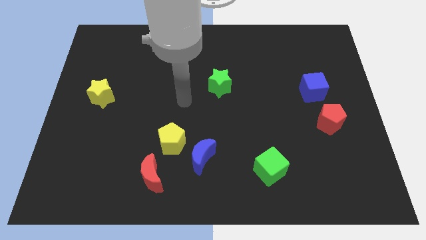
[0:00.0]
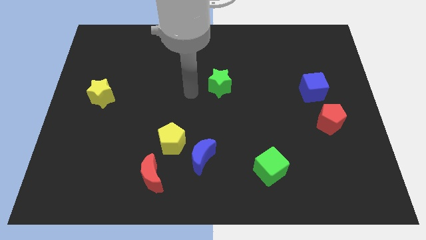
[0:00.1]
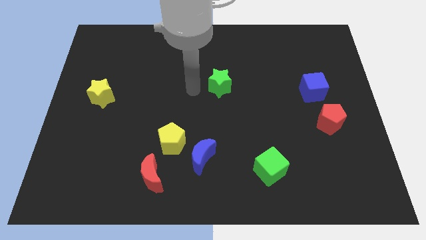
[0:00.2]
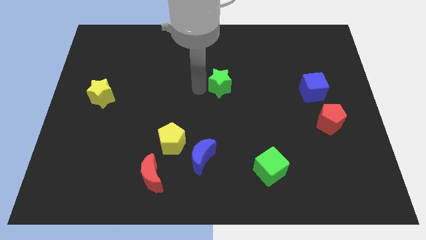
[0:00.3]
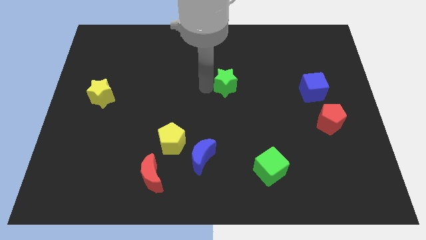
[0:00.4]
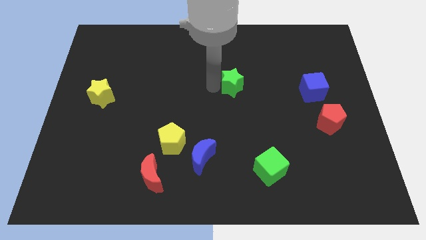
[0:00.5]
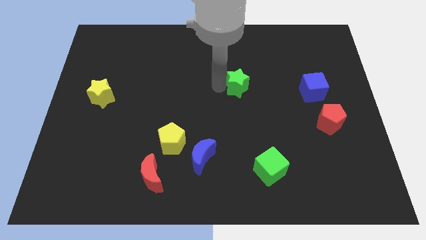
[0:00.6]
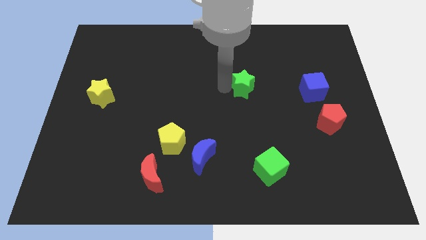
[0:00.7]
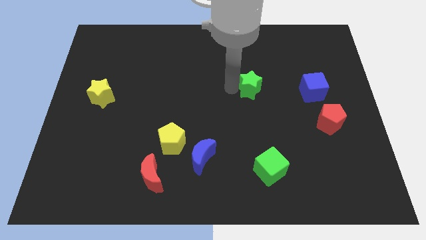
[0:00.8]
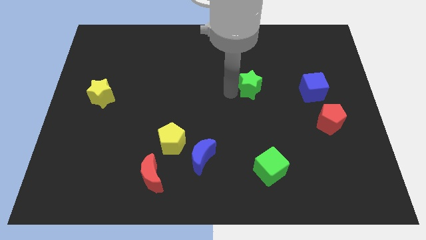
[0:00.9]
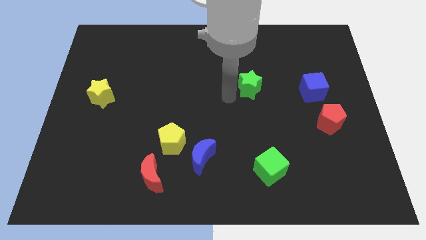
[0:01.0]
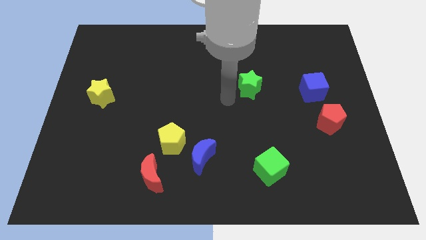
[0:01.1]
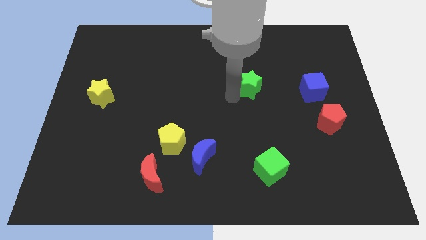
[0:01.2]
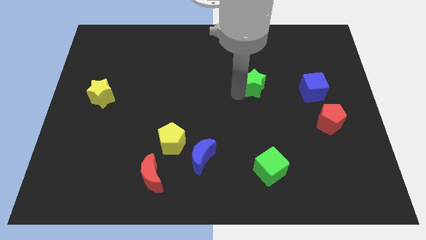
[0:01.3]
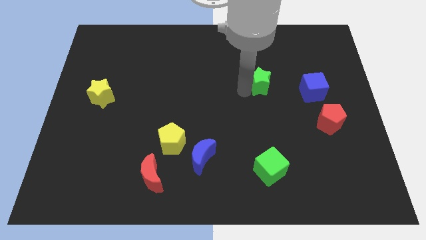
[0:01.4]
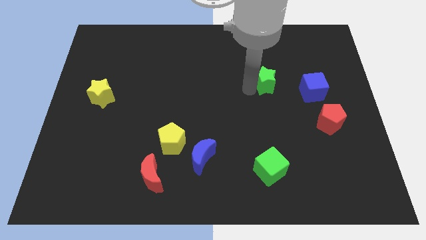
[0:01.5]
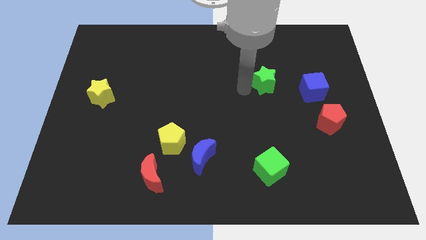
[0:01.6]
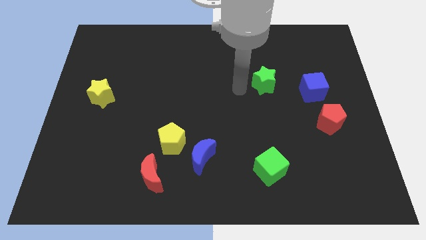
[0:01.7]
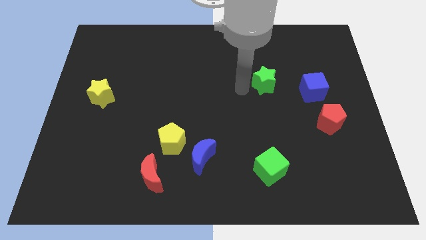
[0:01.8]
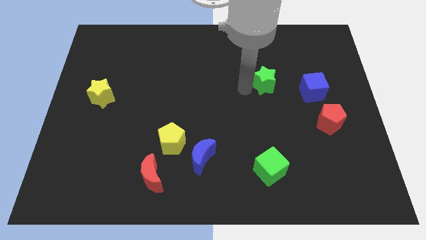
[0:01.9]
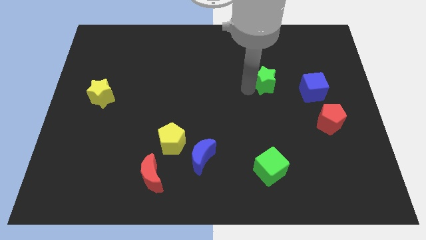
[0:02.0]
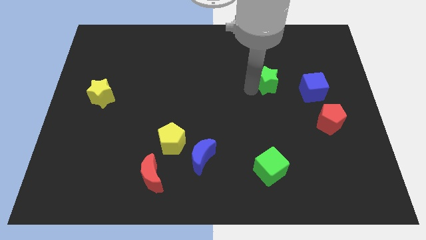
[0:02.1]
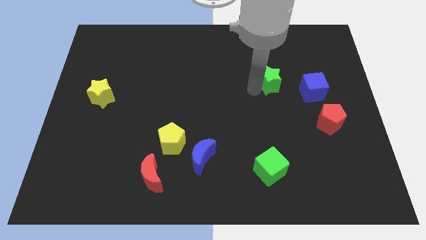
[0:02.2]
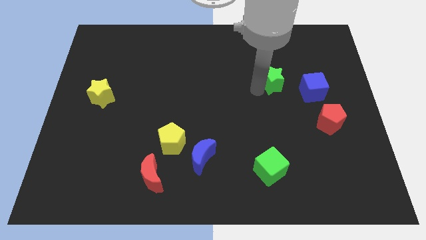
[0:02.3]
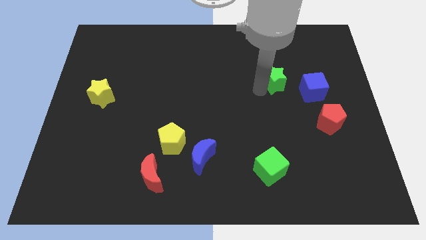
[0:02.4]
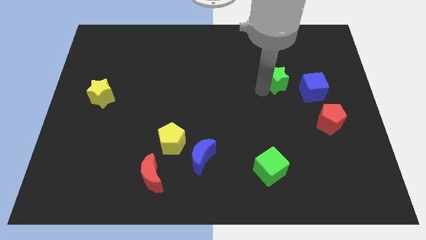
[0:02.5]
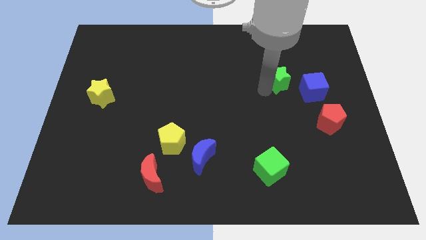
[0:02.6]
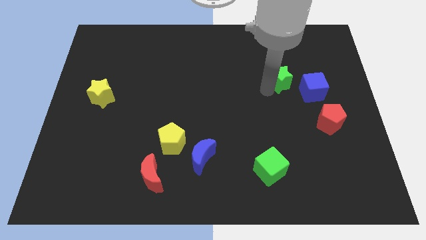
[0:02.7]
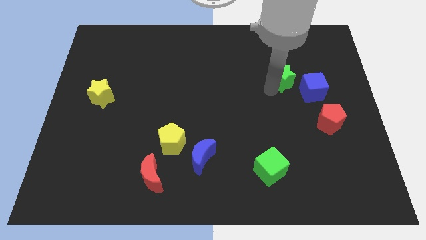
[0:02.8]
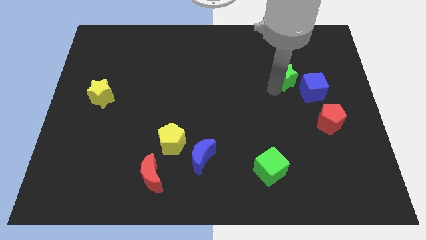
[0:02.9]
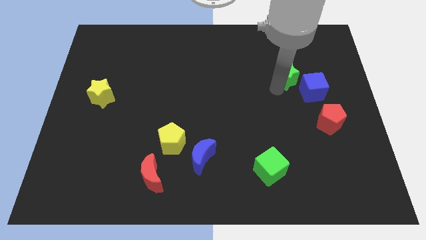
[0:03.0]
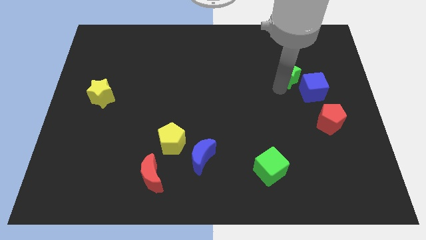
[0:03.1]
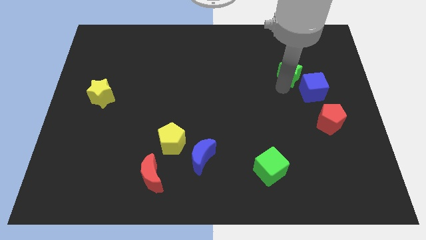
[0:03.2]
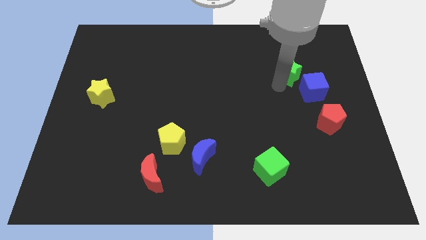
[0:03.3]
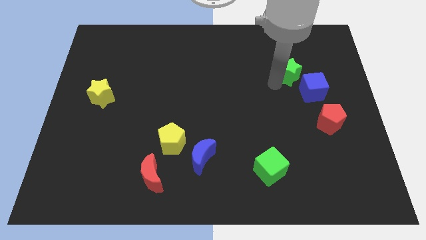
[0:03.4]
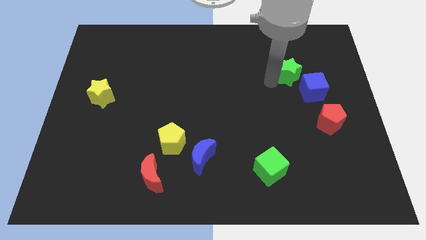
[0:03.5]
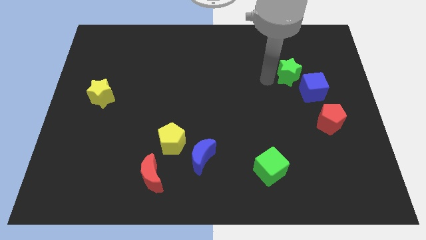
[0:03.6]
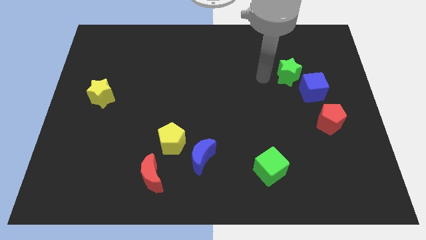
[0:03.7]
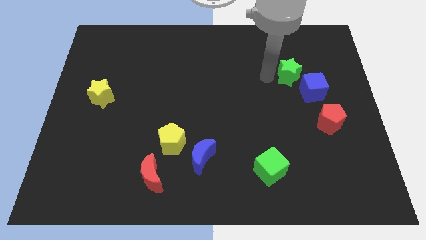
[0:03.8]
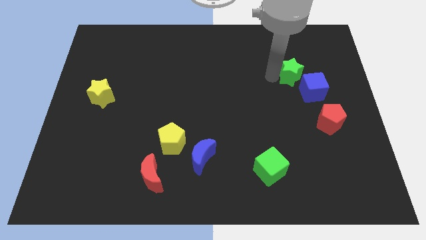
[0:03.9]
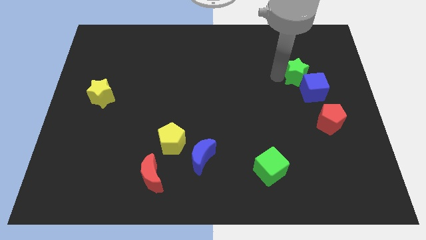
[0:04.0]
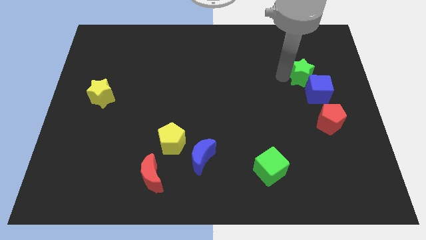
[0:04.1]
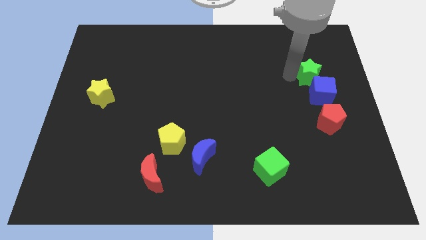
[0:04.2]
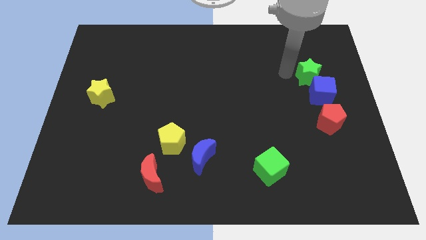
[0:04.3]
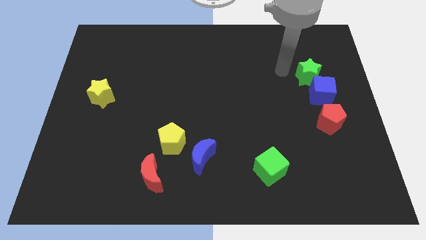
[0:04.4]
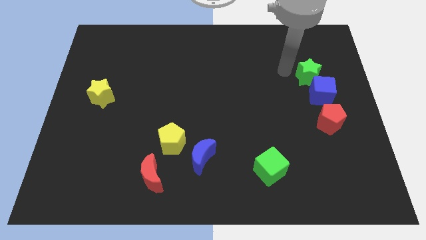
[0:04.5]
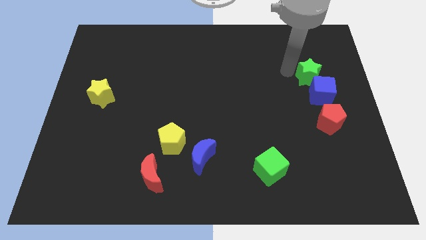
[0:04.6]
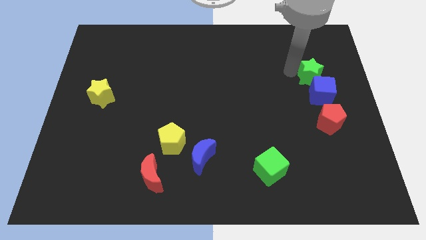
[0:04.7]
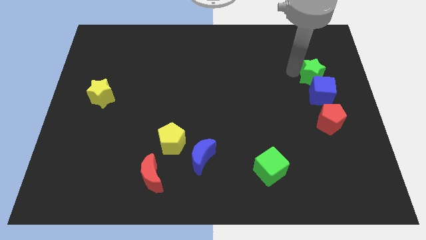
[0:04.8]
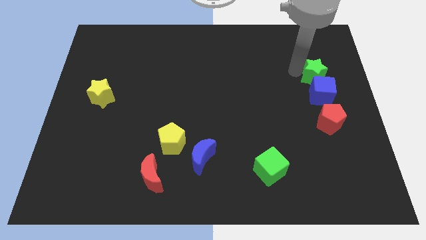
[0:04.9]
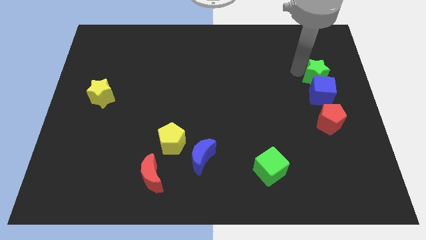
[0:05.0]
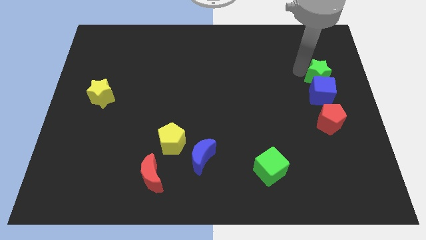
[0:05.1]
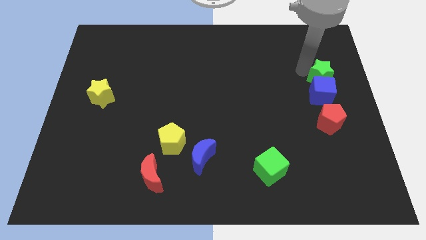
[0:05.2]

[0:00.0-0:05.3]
move the green star to the right side

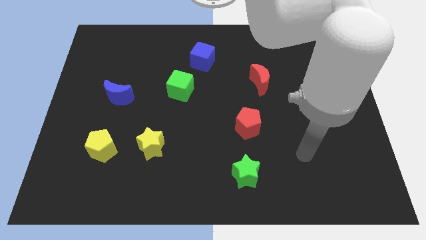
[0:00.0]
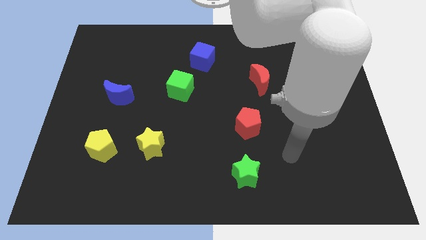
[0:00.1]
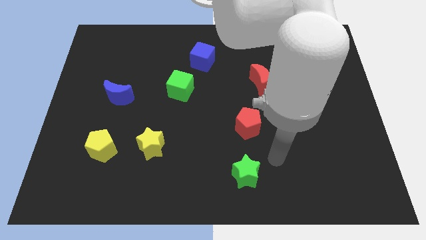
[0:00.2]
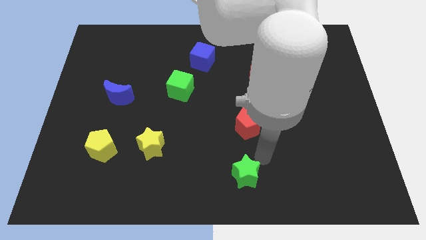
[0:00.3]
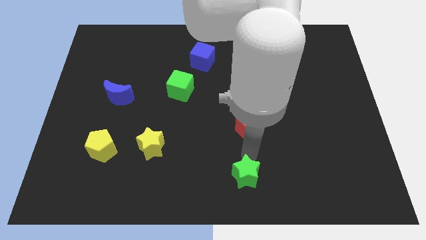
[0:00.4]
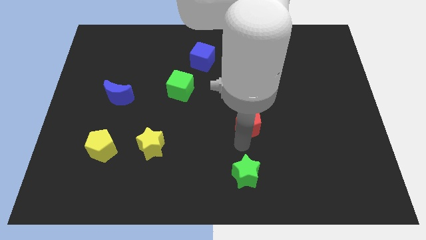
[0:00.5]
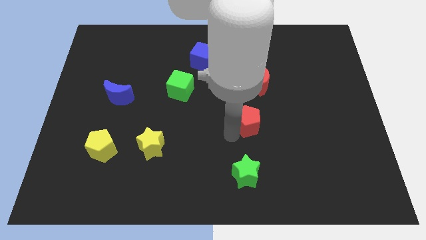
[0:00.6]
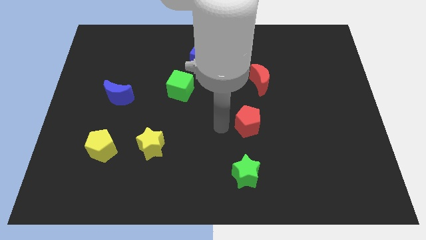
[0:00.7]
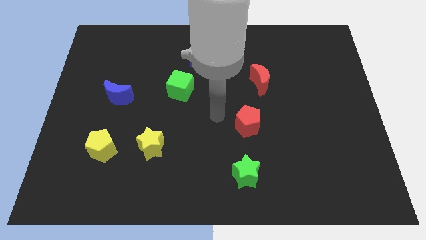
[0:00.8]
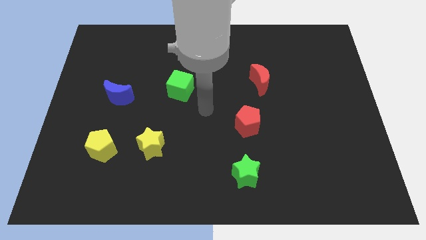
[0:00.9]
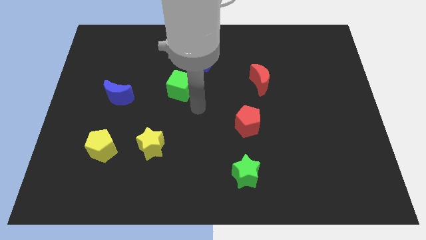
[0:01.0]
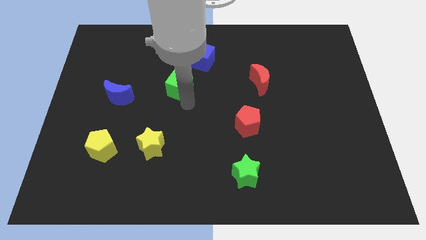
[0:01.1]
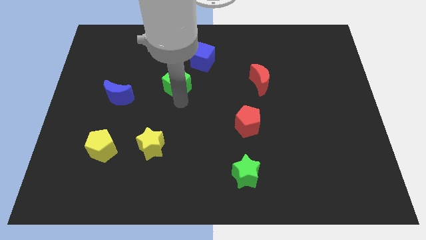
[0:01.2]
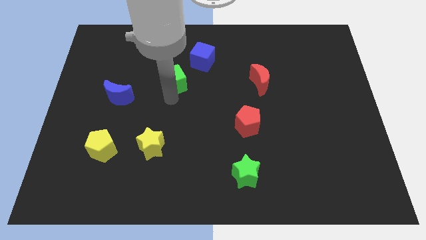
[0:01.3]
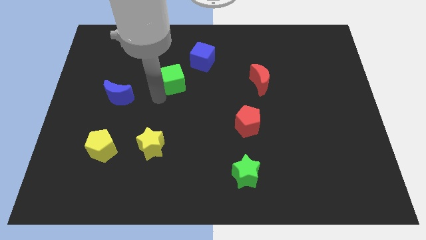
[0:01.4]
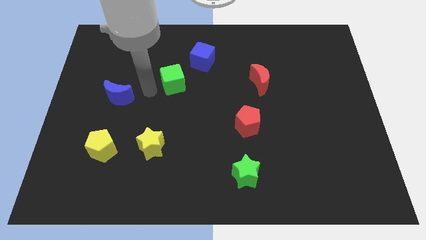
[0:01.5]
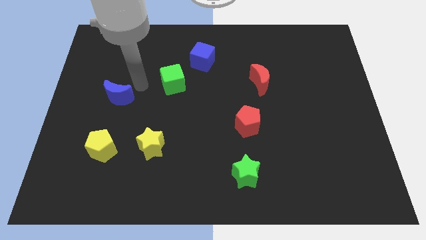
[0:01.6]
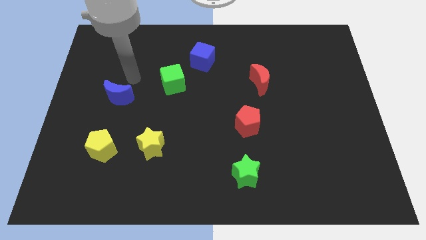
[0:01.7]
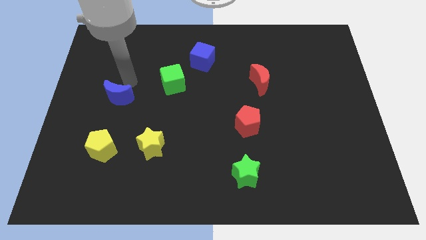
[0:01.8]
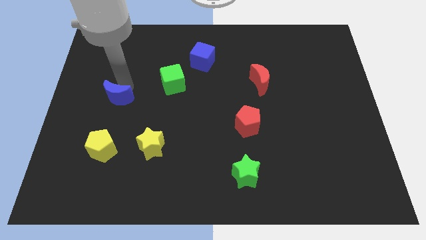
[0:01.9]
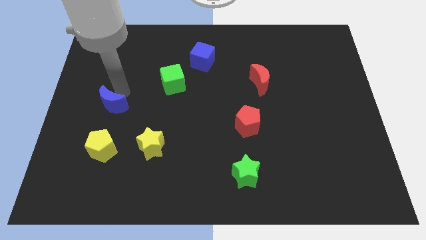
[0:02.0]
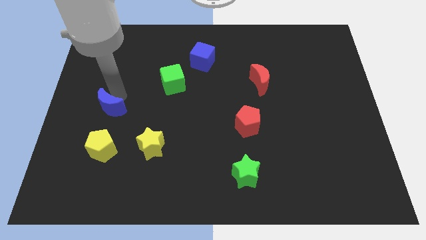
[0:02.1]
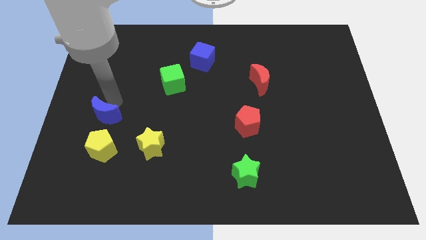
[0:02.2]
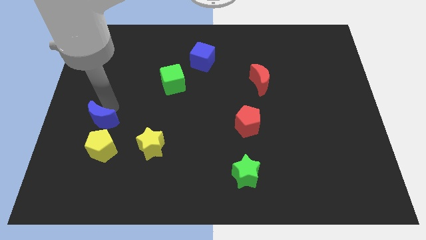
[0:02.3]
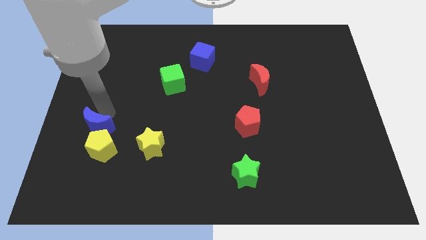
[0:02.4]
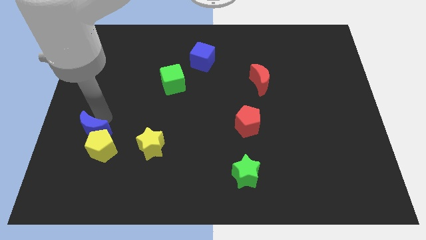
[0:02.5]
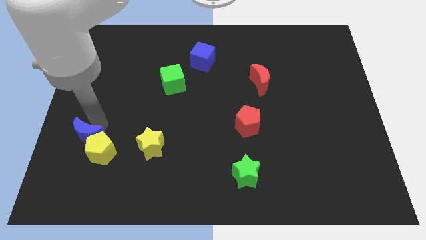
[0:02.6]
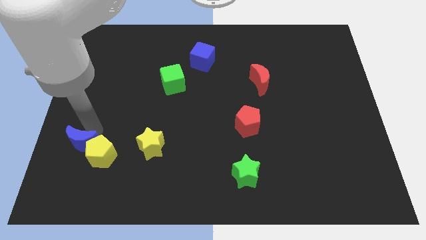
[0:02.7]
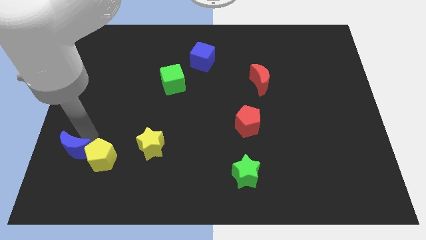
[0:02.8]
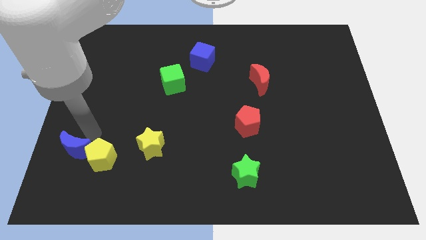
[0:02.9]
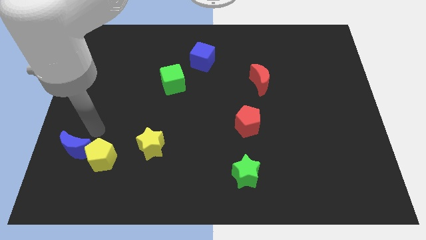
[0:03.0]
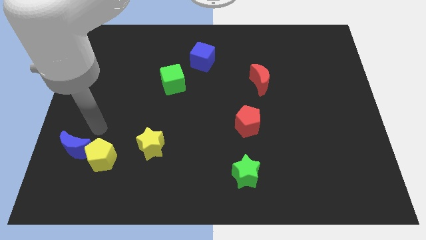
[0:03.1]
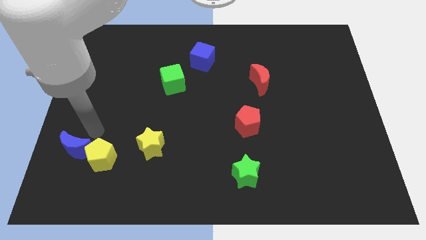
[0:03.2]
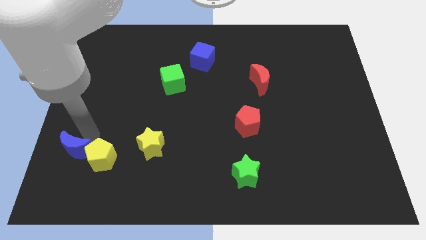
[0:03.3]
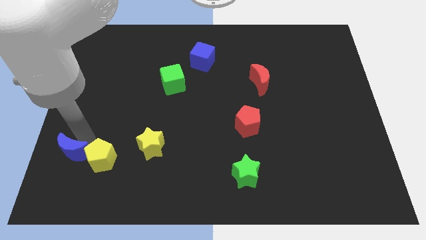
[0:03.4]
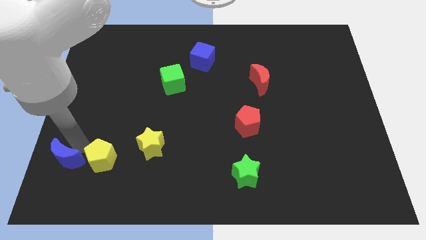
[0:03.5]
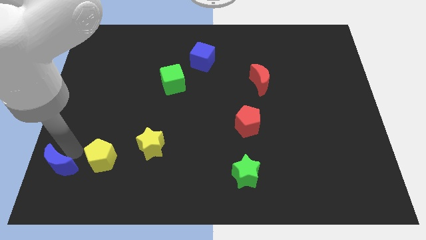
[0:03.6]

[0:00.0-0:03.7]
put the blue moon to the bottom left of the board
